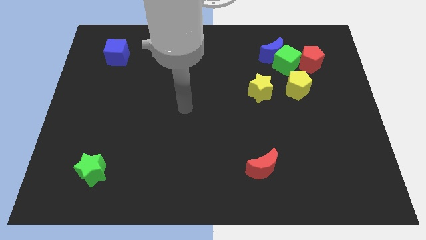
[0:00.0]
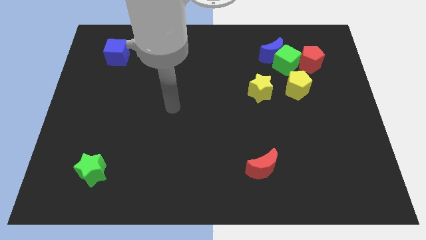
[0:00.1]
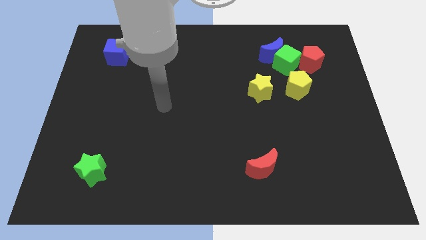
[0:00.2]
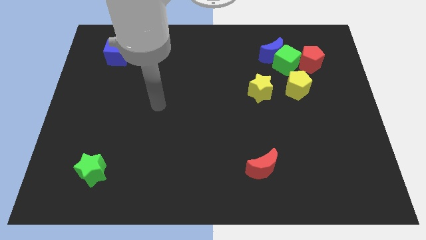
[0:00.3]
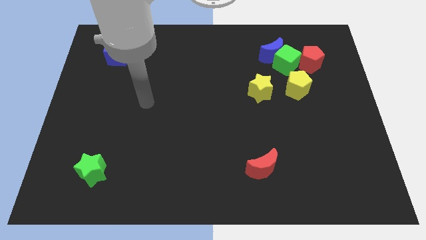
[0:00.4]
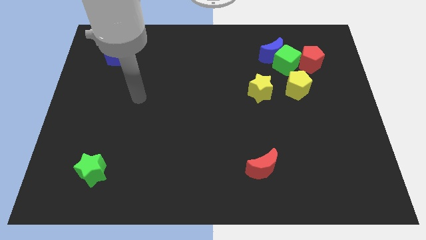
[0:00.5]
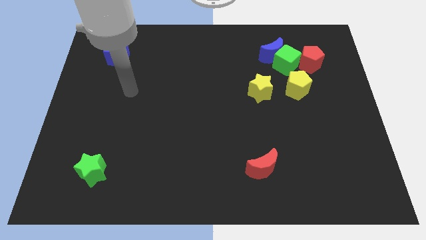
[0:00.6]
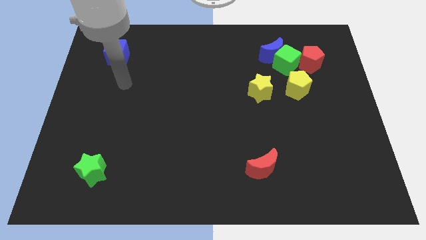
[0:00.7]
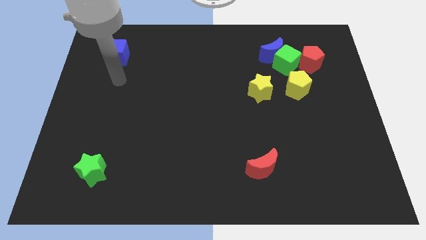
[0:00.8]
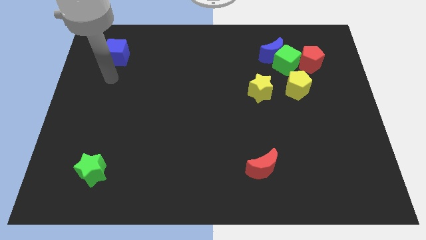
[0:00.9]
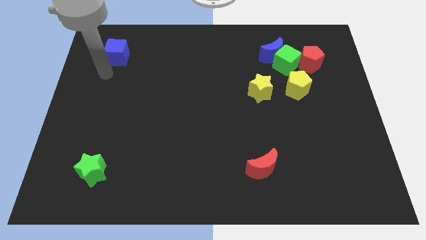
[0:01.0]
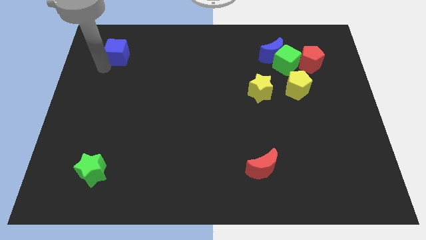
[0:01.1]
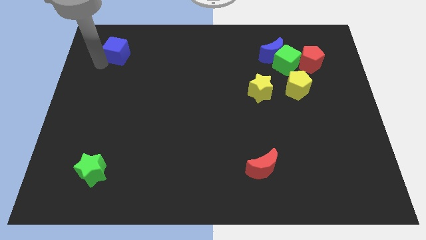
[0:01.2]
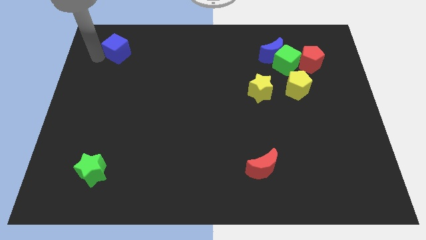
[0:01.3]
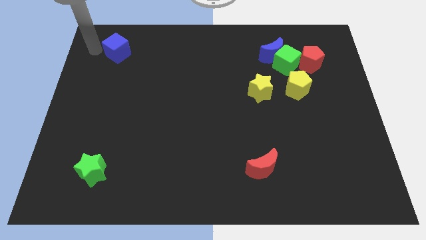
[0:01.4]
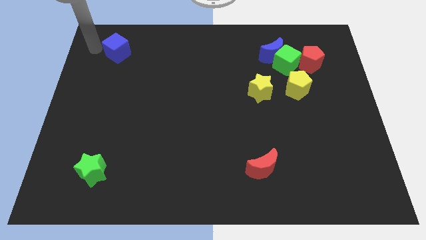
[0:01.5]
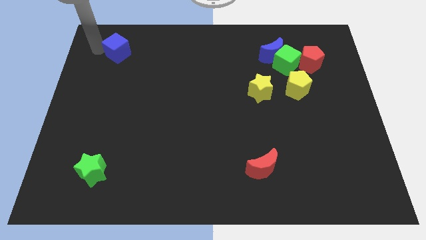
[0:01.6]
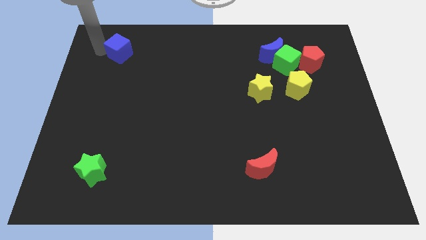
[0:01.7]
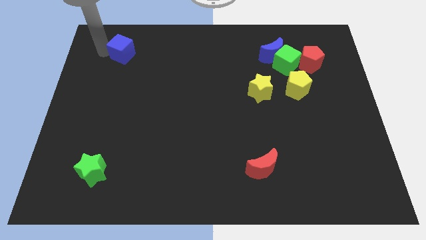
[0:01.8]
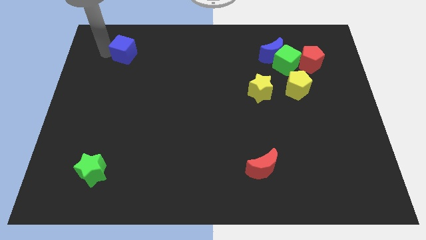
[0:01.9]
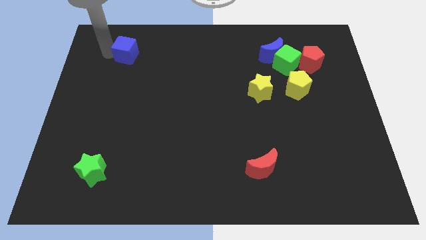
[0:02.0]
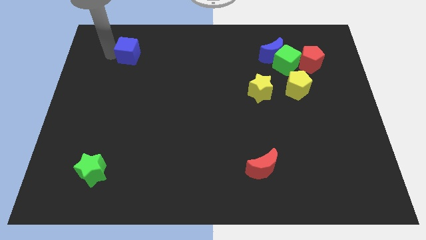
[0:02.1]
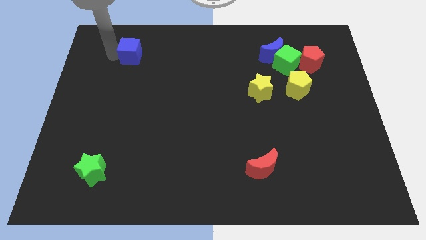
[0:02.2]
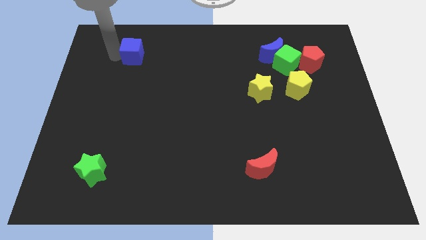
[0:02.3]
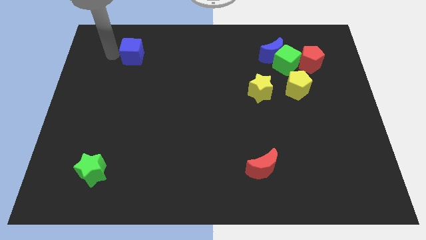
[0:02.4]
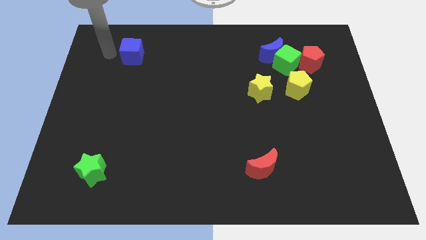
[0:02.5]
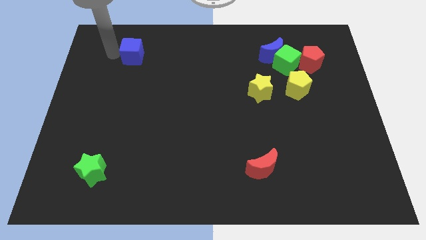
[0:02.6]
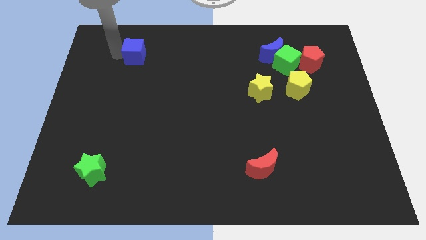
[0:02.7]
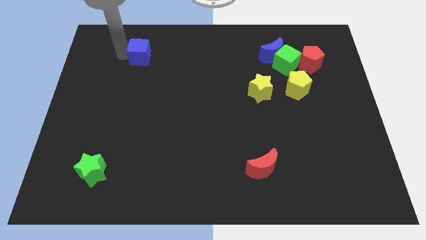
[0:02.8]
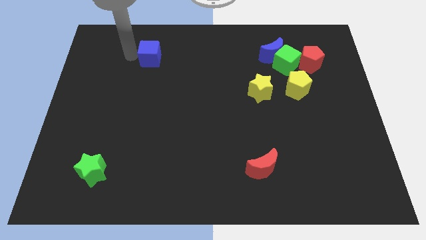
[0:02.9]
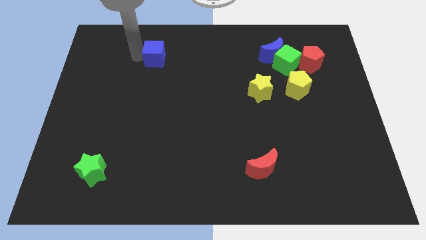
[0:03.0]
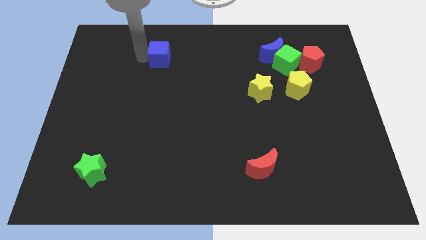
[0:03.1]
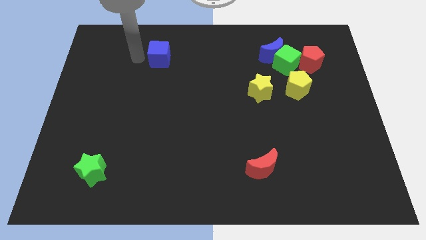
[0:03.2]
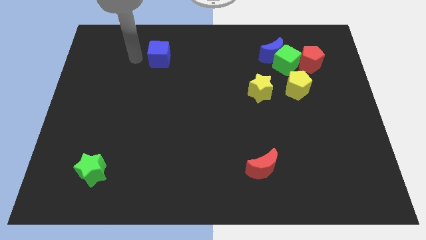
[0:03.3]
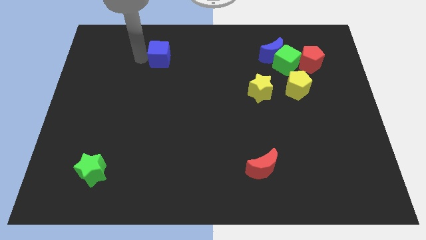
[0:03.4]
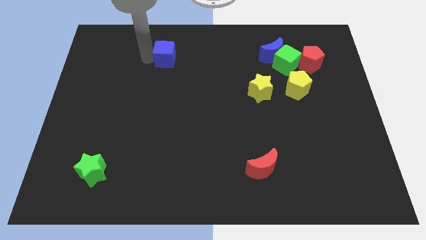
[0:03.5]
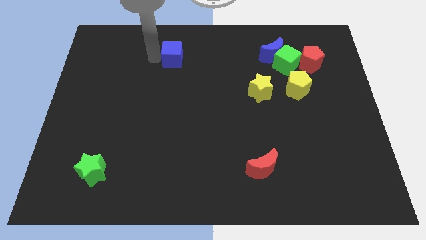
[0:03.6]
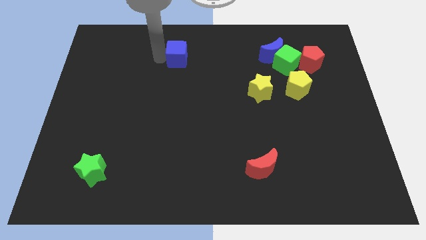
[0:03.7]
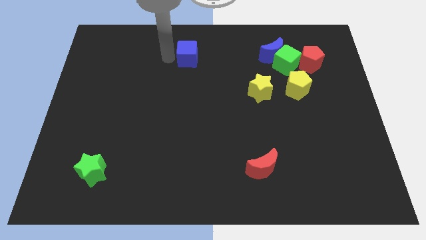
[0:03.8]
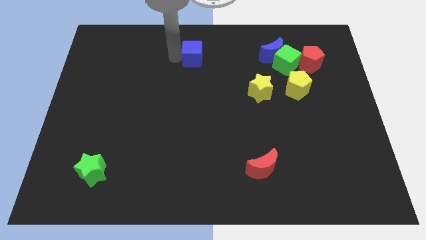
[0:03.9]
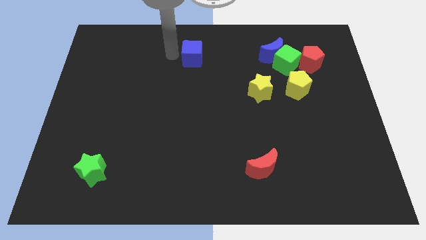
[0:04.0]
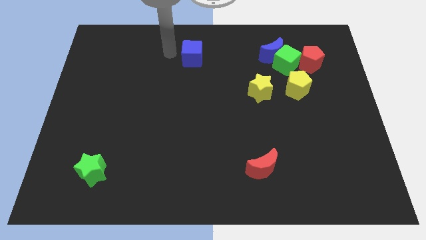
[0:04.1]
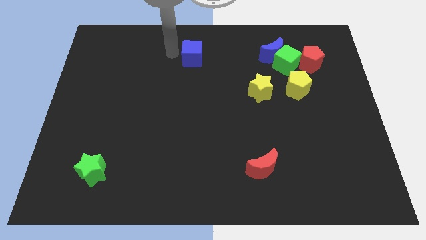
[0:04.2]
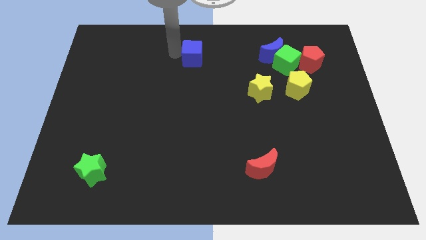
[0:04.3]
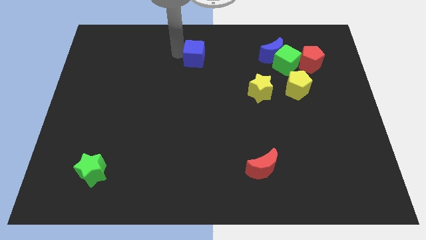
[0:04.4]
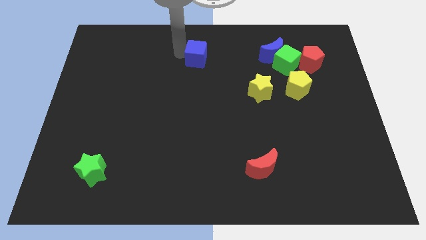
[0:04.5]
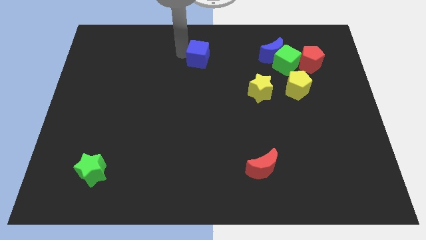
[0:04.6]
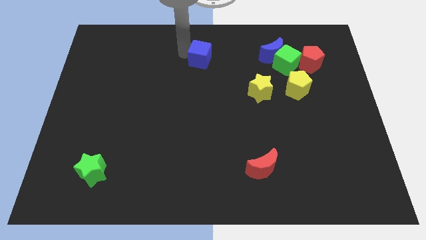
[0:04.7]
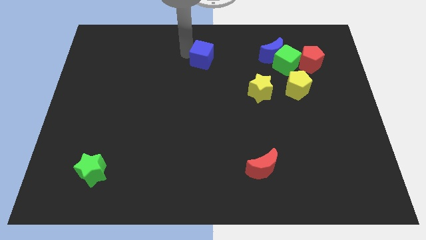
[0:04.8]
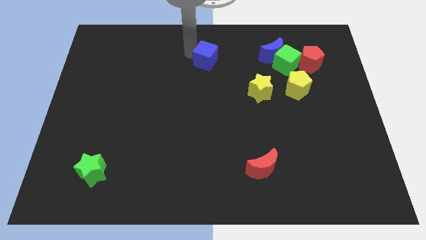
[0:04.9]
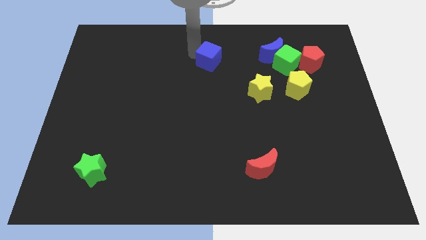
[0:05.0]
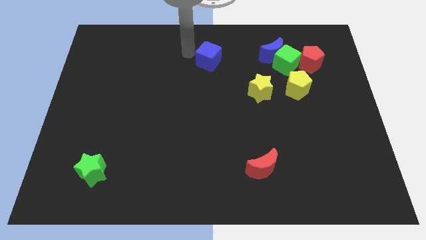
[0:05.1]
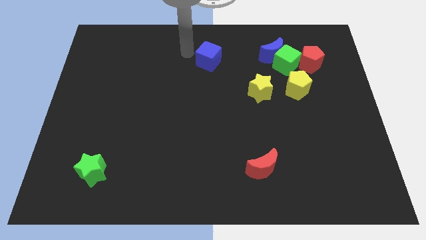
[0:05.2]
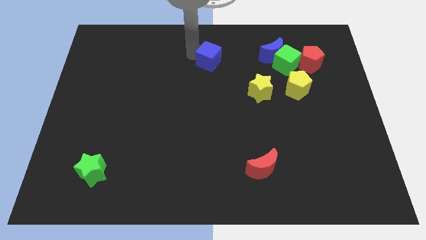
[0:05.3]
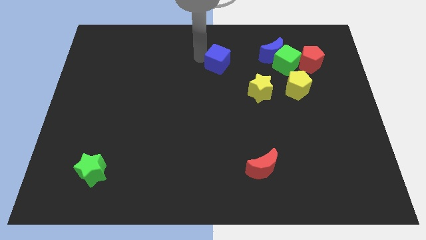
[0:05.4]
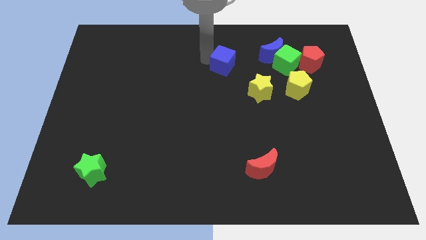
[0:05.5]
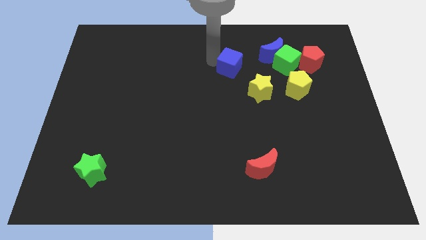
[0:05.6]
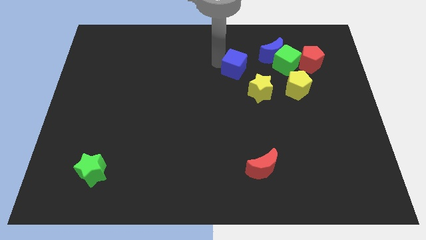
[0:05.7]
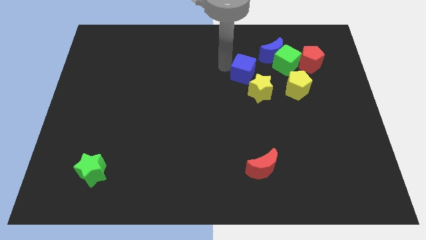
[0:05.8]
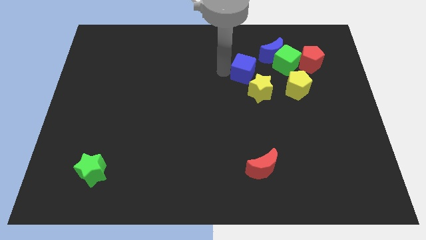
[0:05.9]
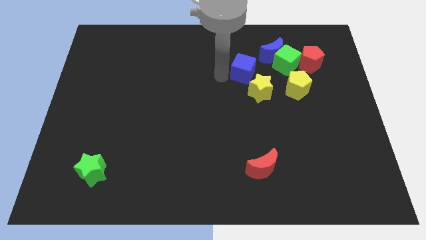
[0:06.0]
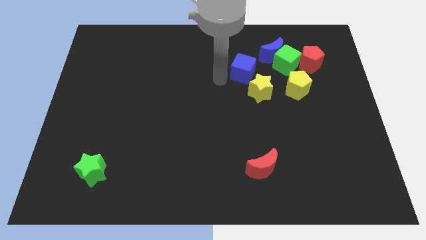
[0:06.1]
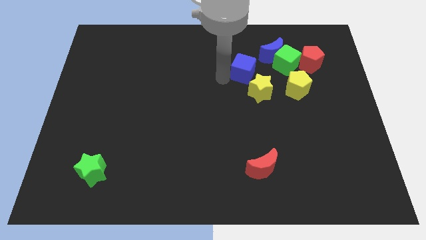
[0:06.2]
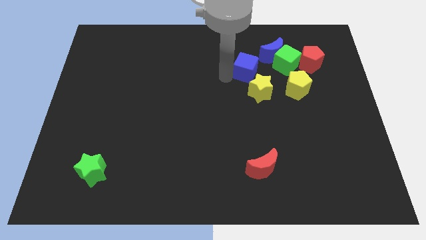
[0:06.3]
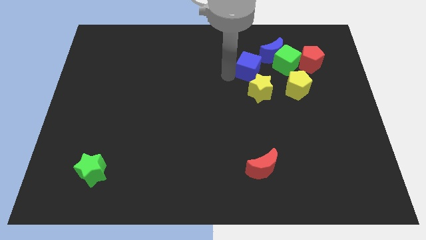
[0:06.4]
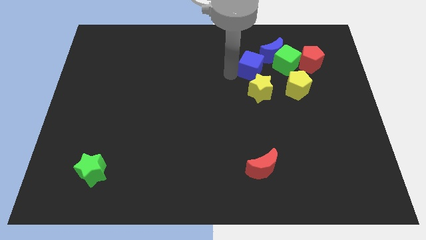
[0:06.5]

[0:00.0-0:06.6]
move the blue cube just left of the red pentagon

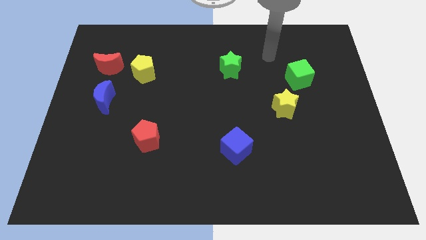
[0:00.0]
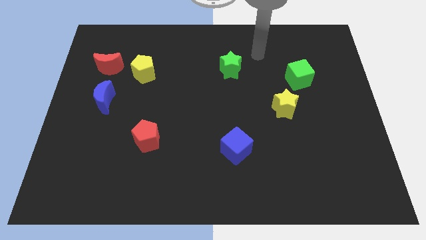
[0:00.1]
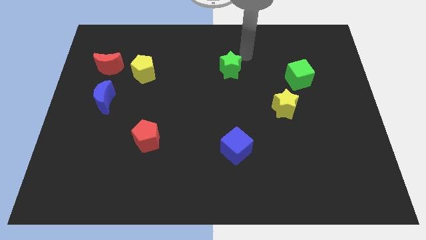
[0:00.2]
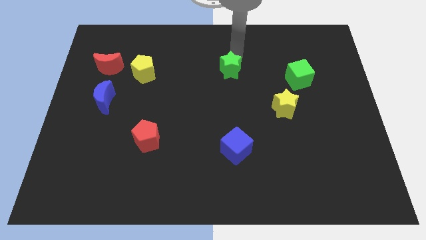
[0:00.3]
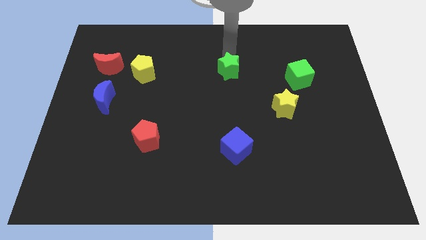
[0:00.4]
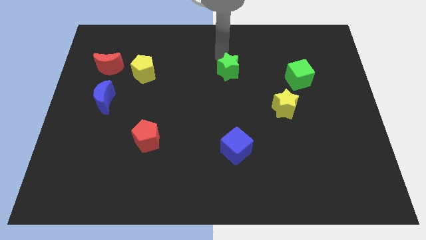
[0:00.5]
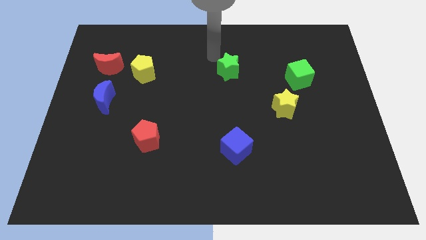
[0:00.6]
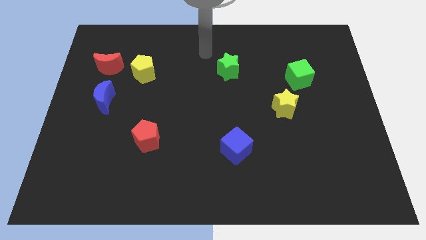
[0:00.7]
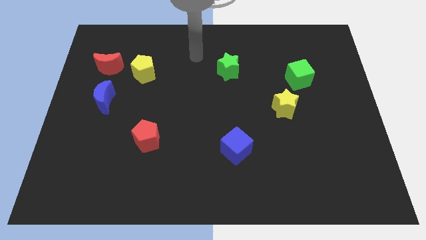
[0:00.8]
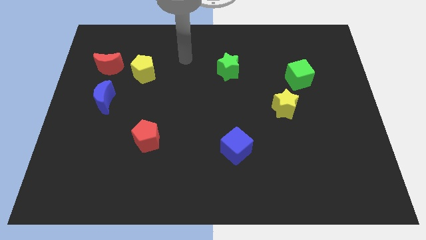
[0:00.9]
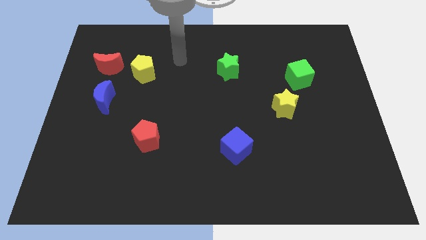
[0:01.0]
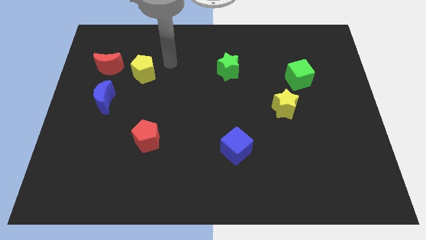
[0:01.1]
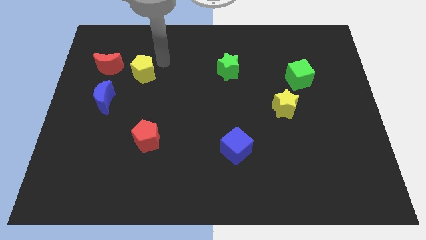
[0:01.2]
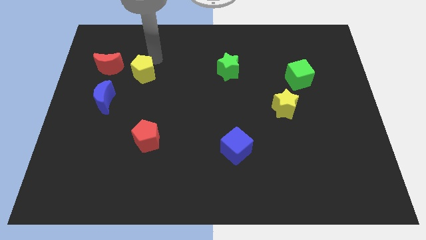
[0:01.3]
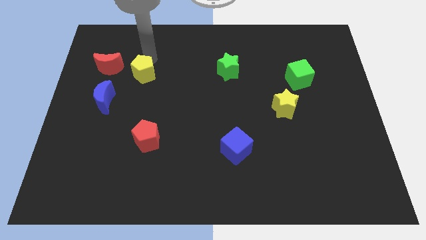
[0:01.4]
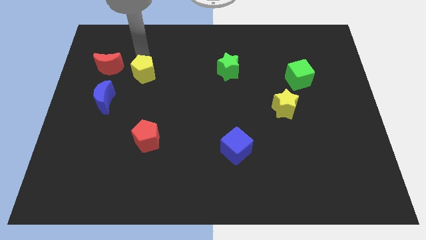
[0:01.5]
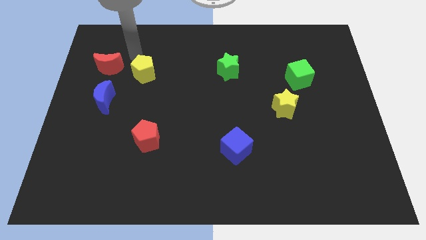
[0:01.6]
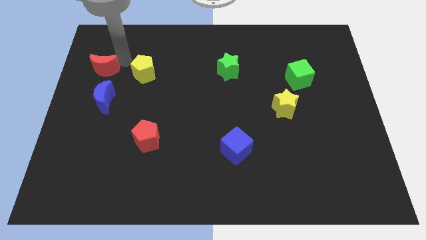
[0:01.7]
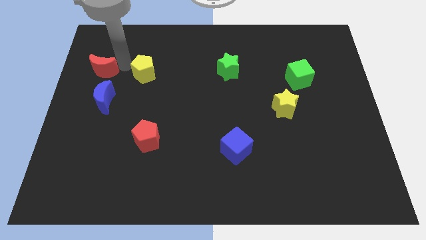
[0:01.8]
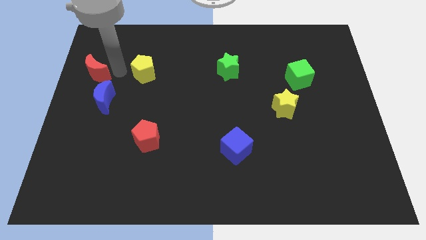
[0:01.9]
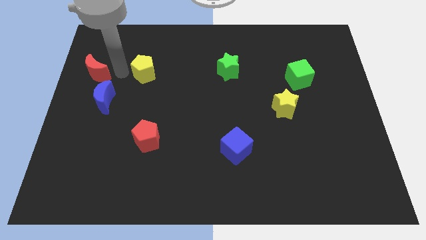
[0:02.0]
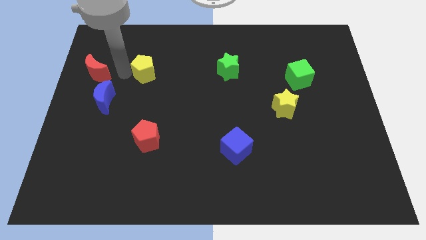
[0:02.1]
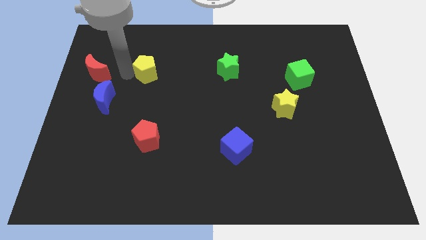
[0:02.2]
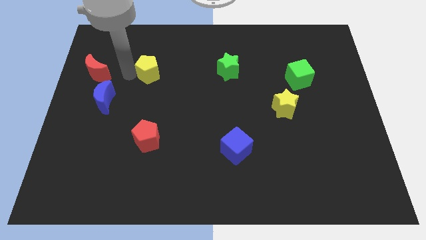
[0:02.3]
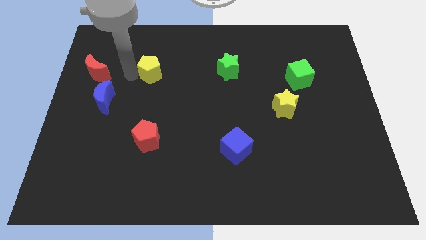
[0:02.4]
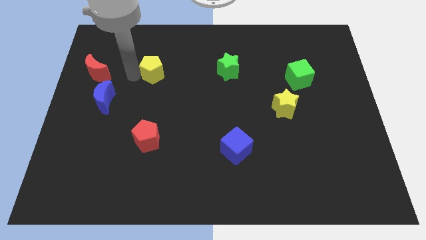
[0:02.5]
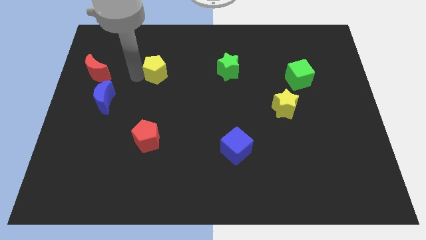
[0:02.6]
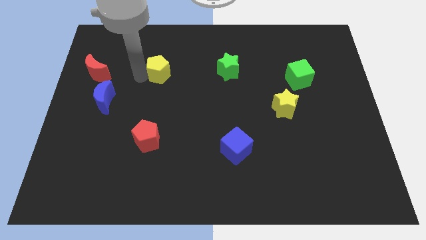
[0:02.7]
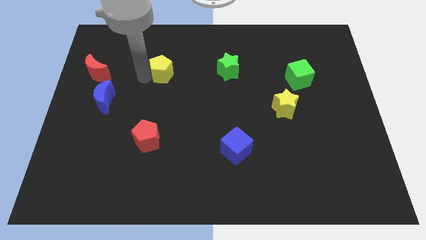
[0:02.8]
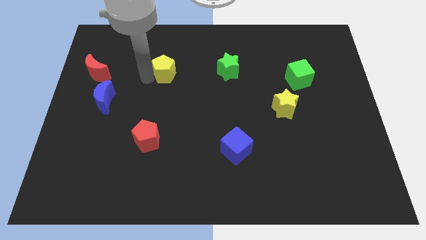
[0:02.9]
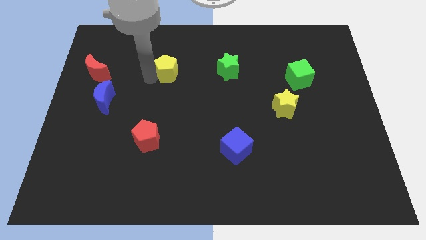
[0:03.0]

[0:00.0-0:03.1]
push the yellow pentagon to the left of the green star
